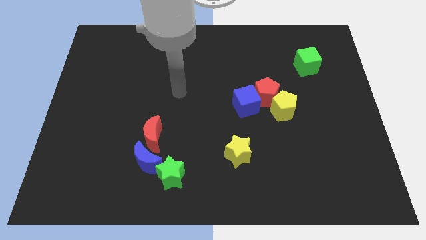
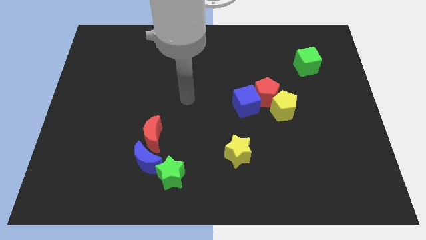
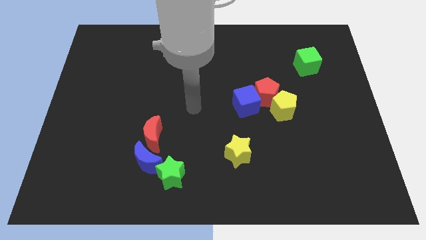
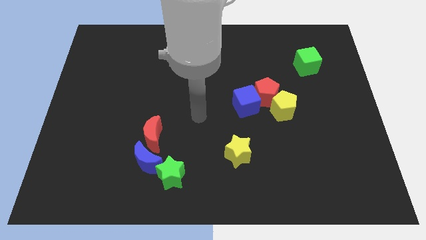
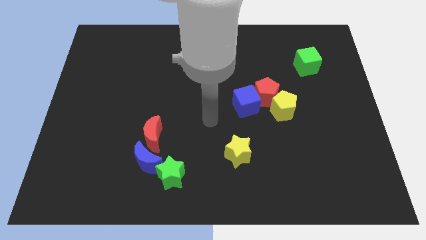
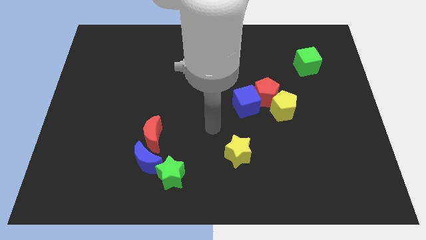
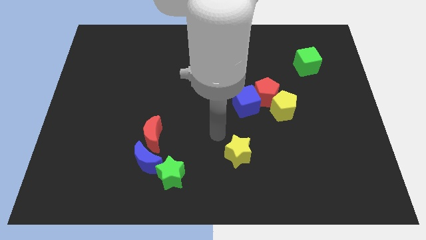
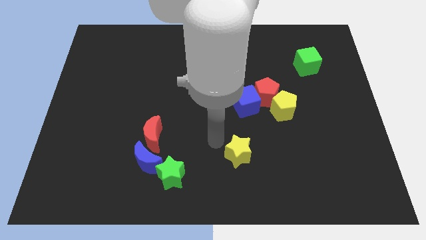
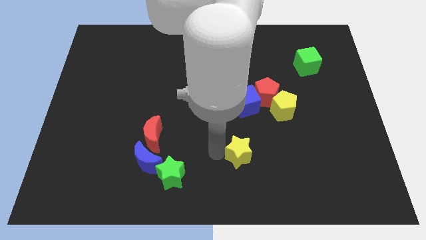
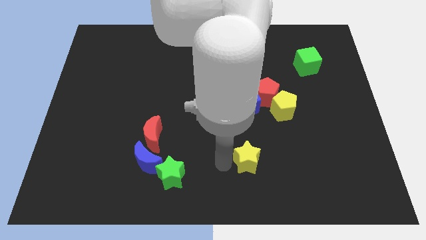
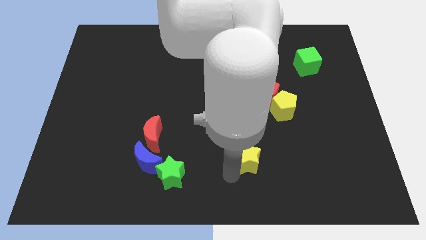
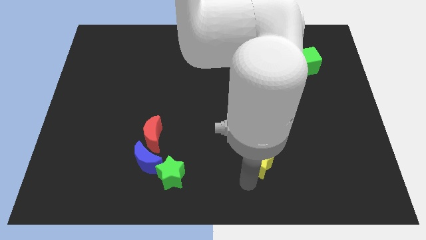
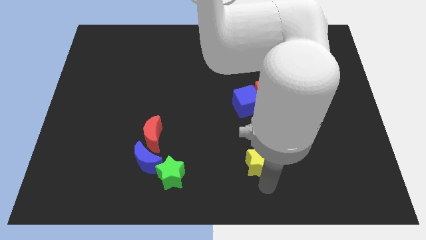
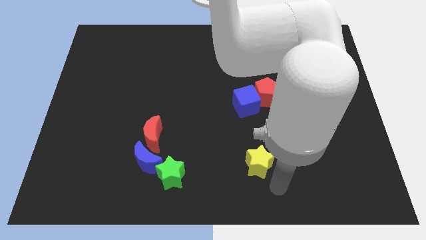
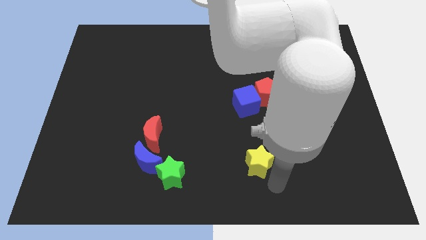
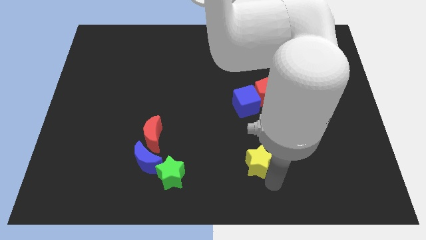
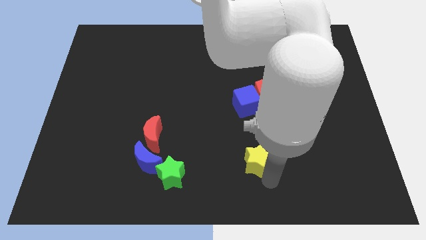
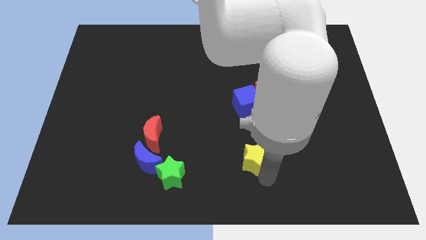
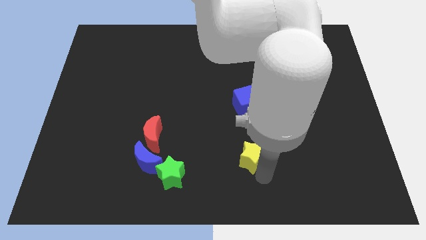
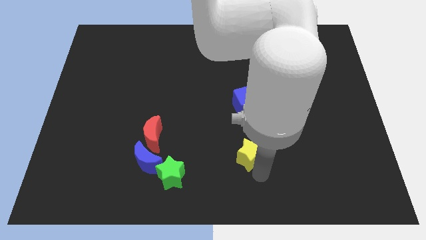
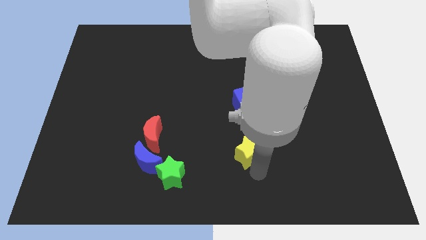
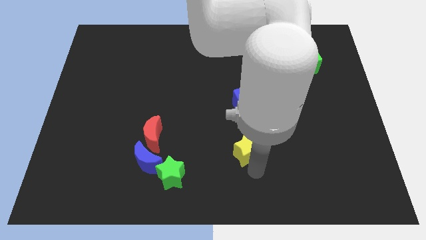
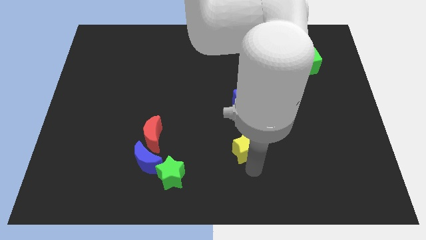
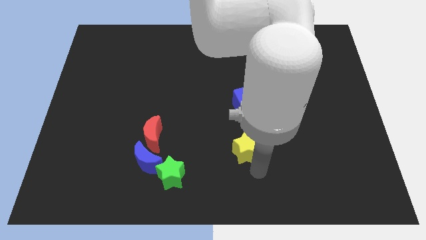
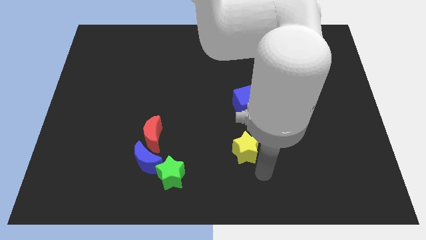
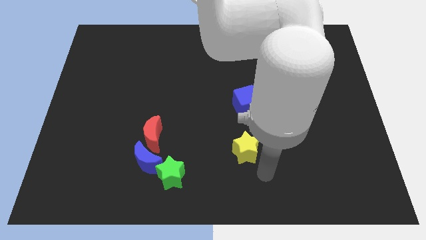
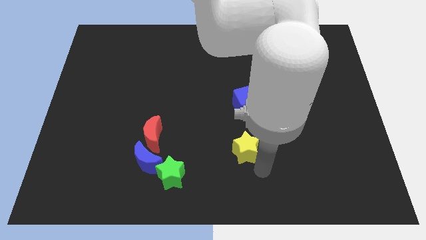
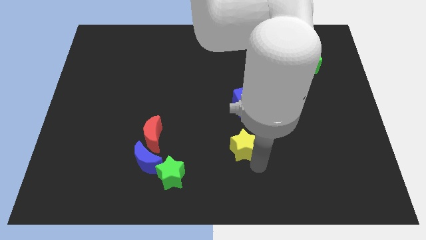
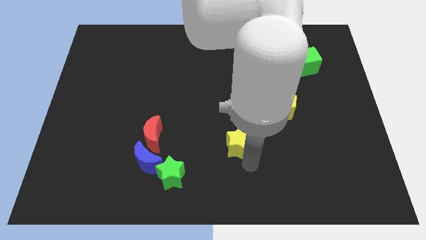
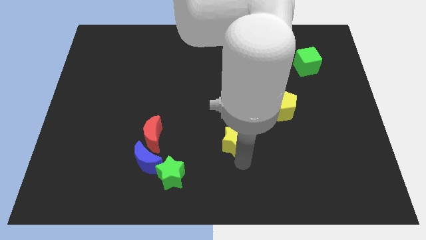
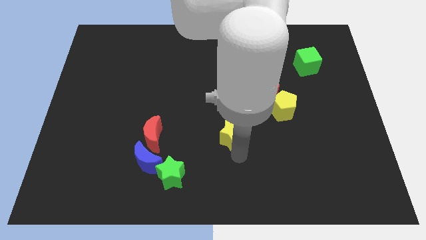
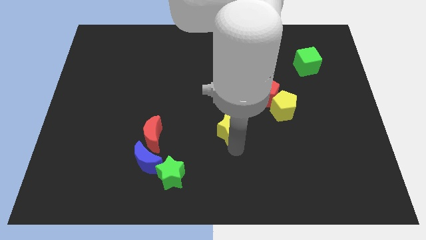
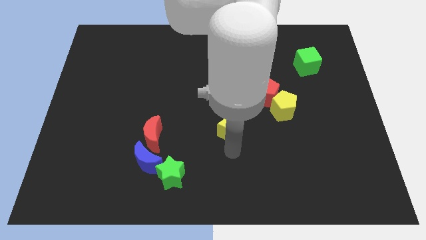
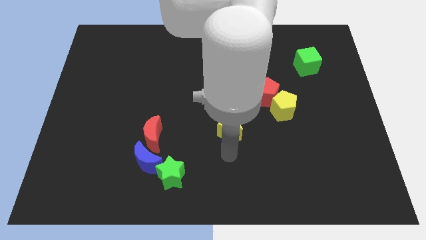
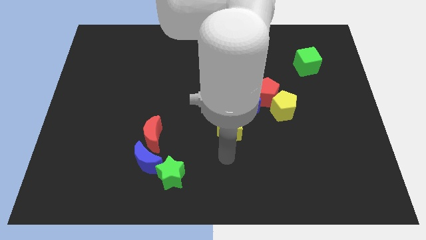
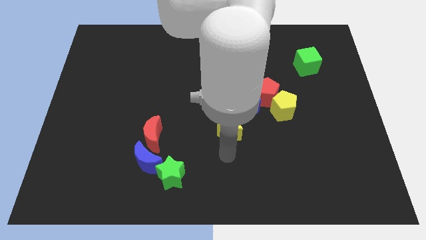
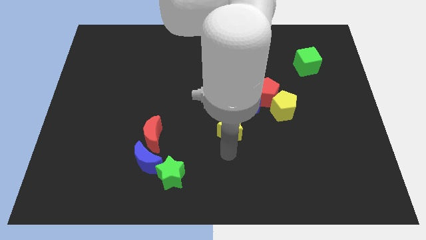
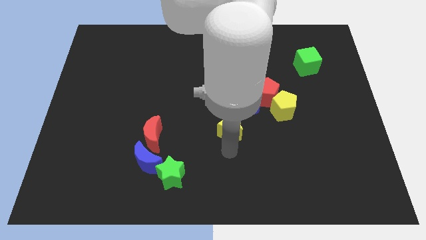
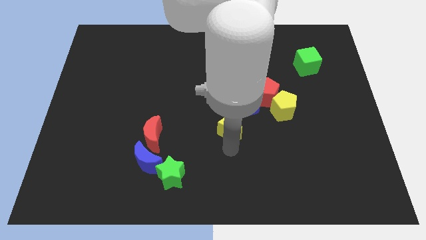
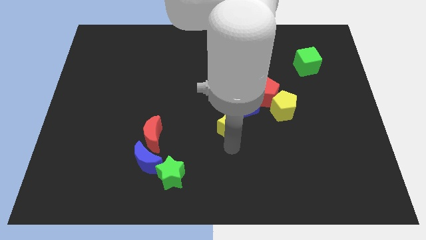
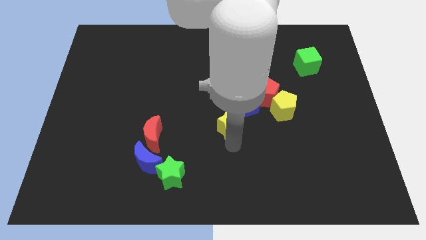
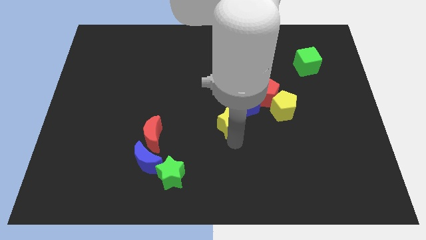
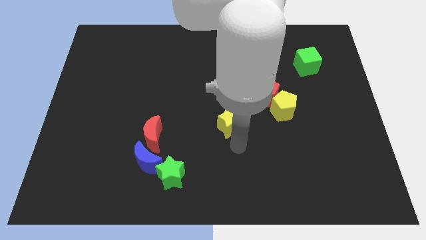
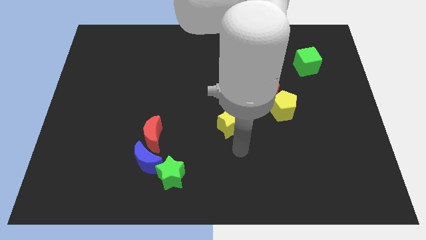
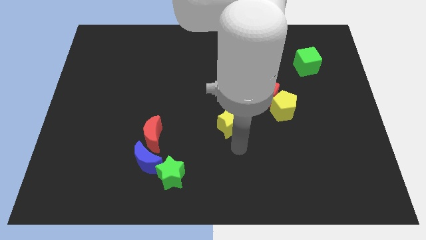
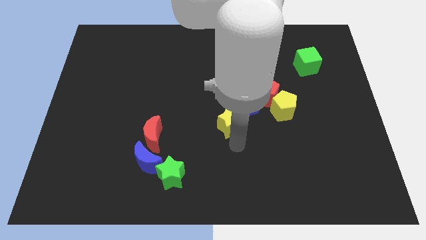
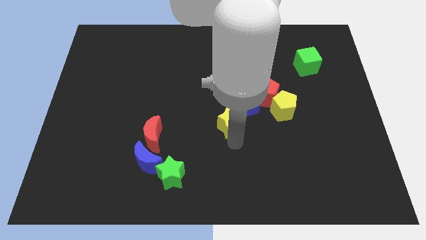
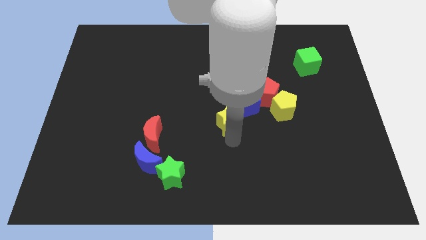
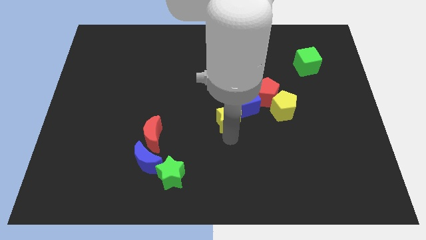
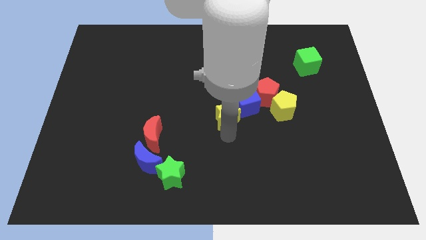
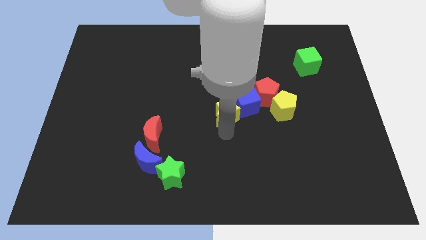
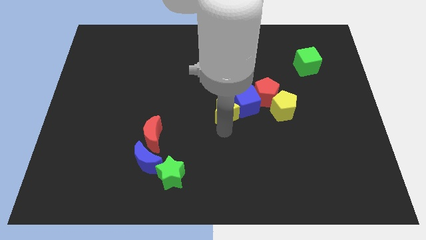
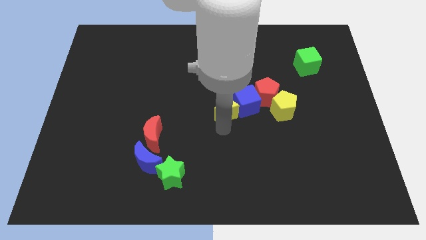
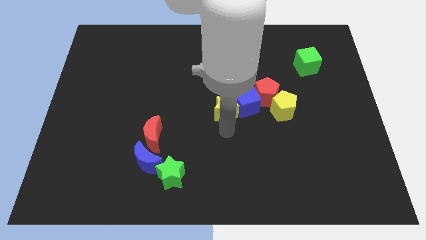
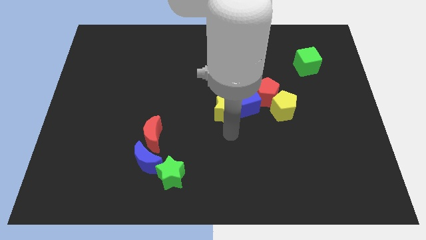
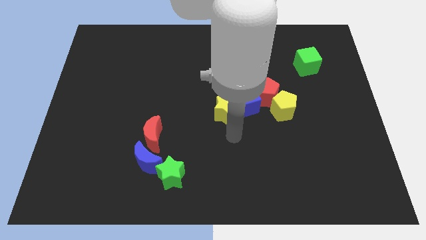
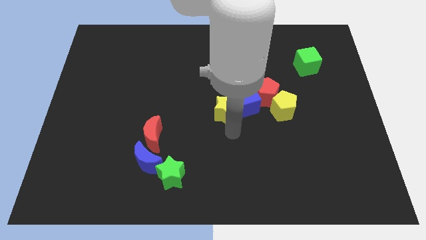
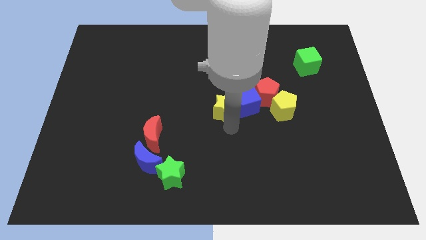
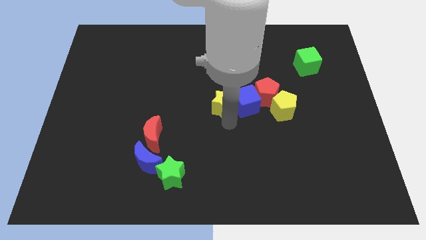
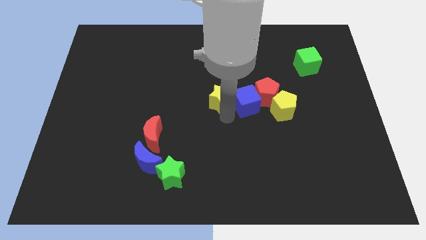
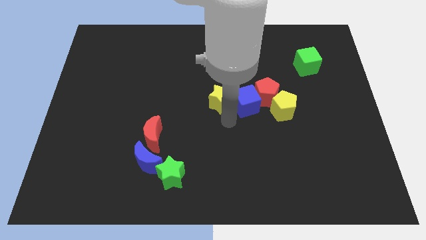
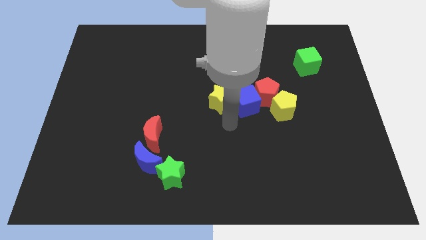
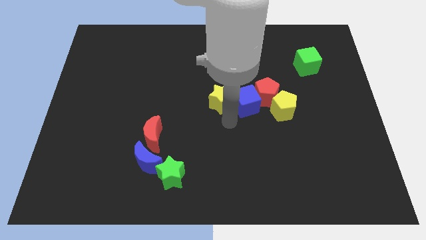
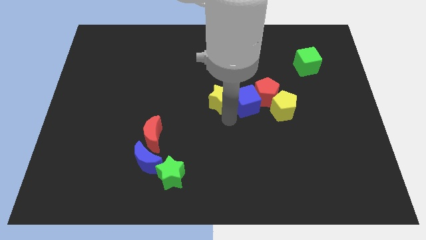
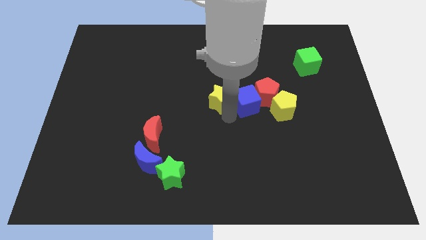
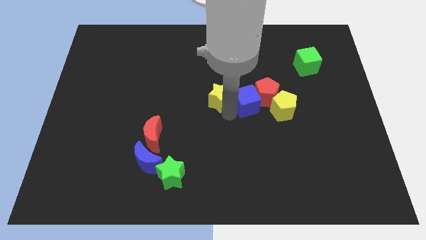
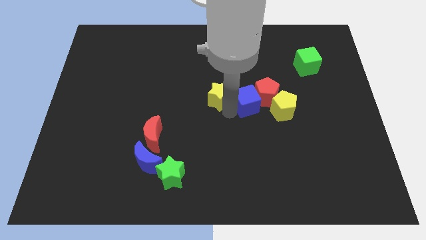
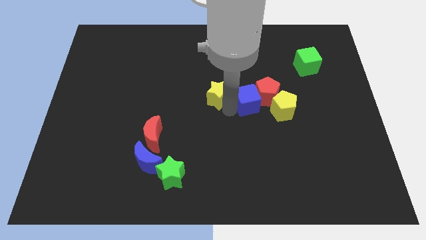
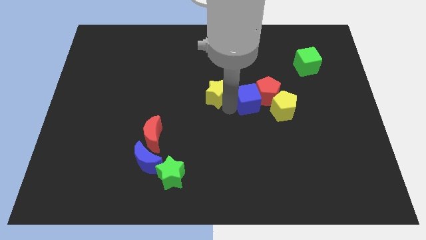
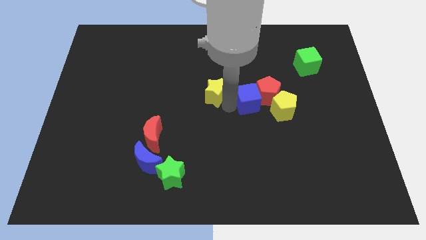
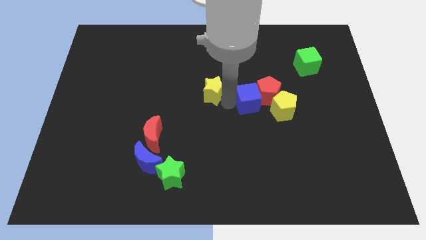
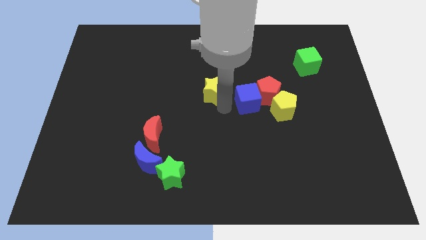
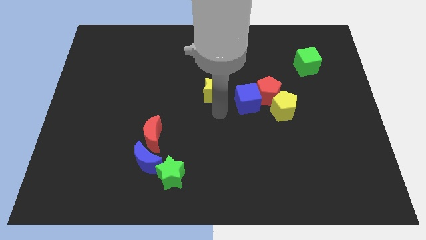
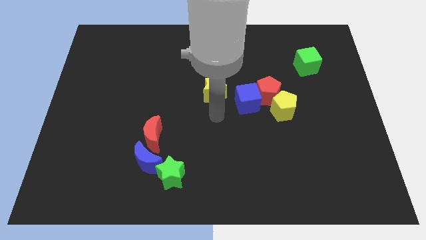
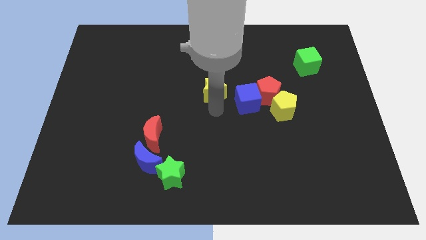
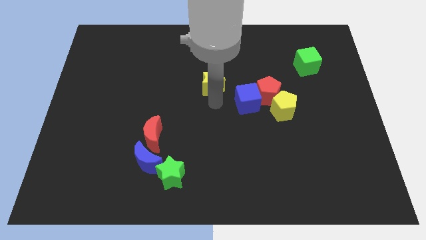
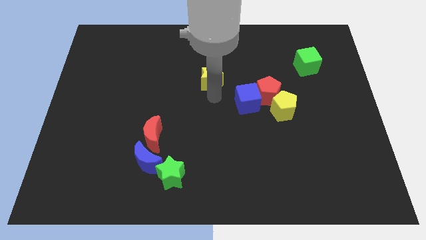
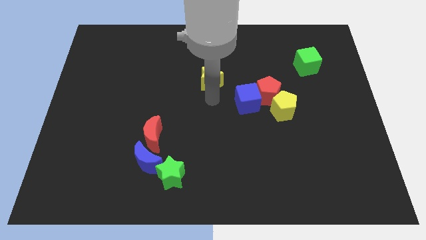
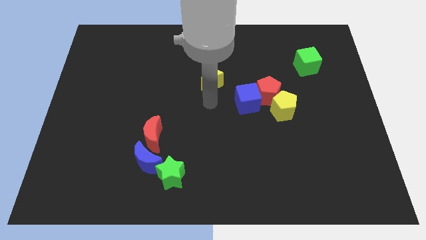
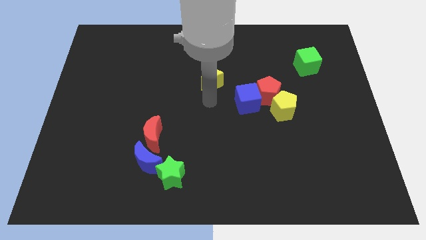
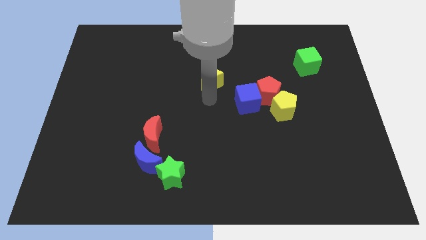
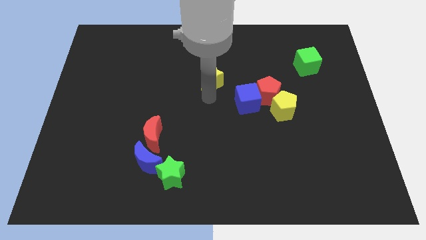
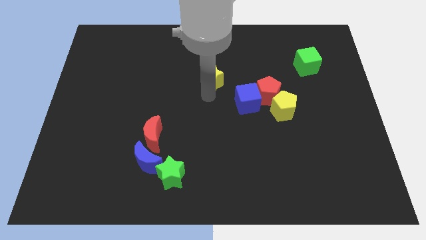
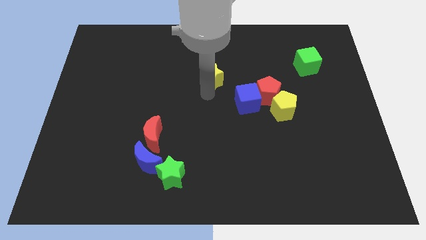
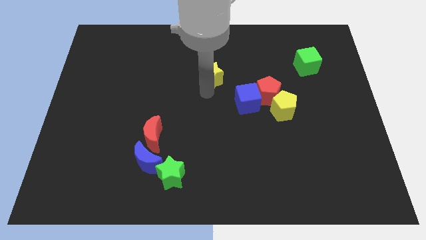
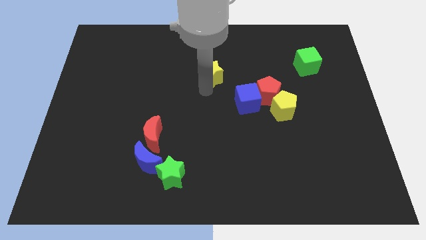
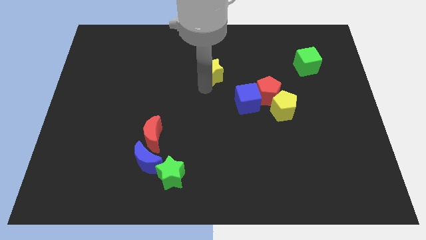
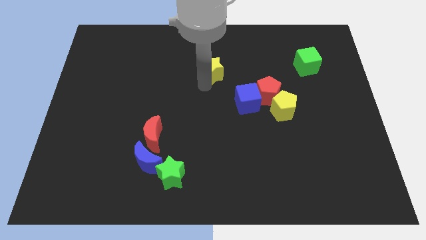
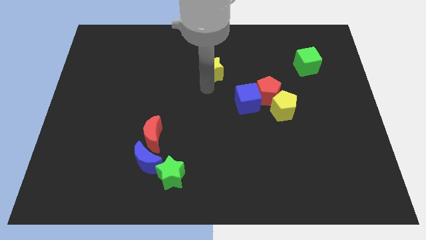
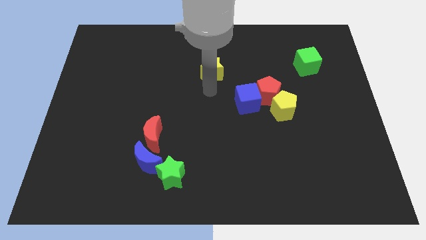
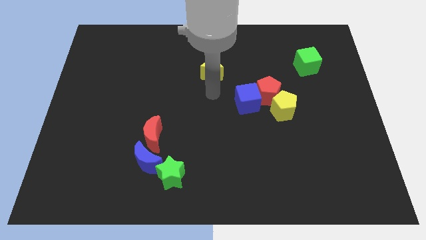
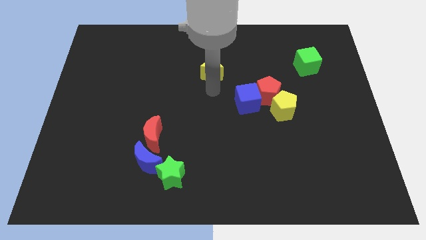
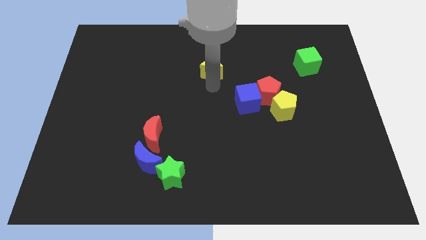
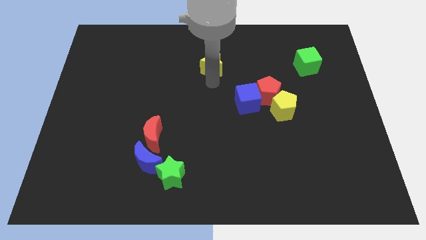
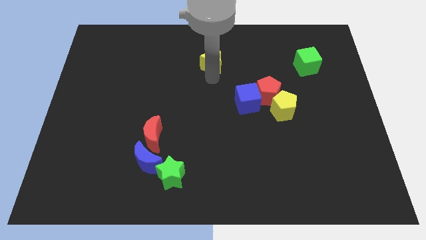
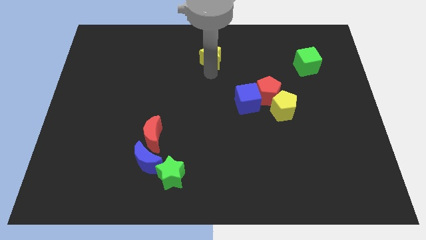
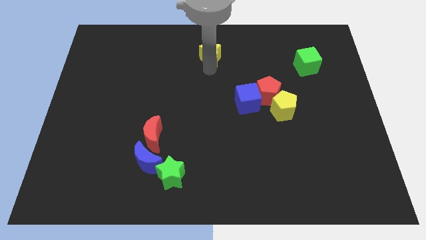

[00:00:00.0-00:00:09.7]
push the yellow star to the towards your base
